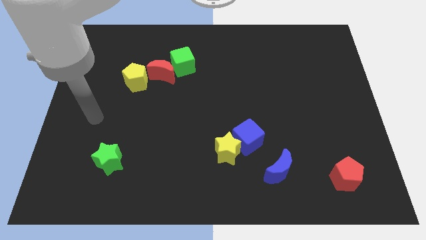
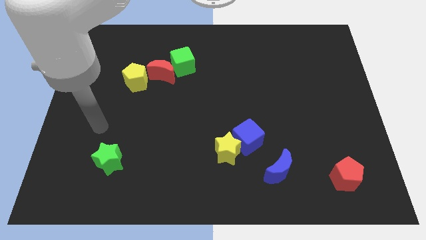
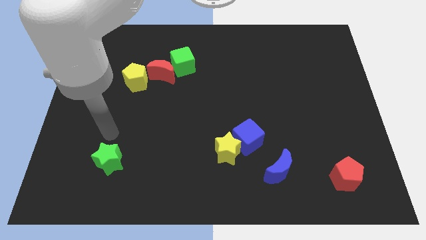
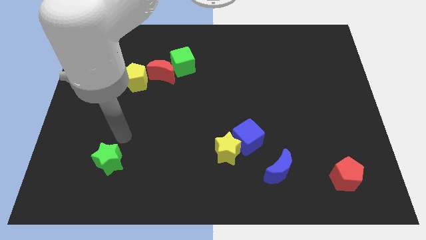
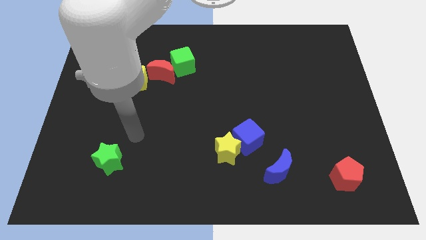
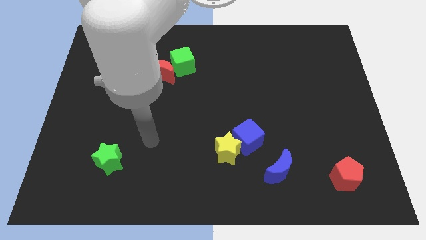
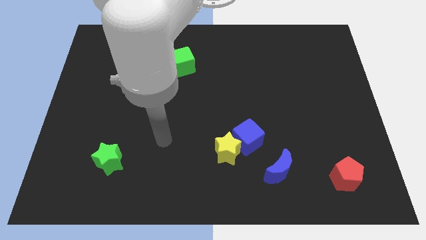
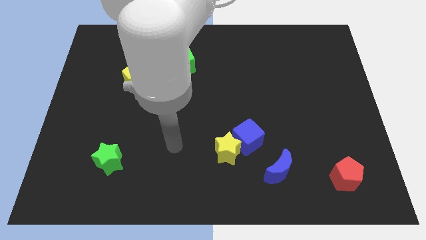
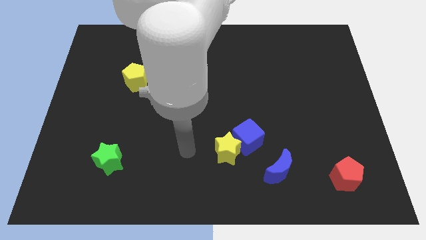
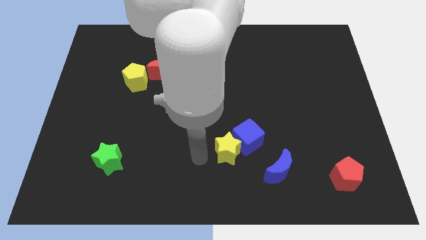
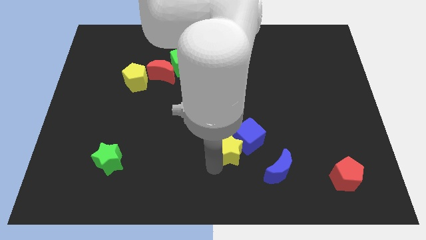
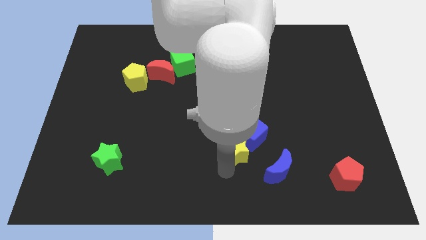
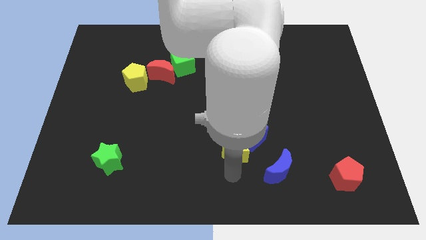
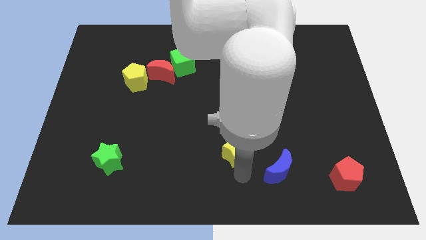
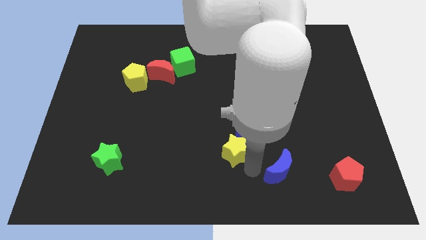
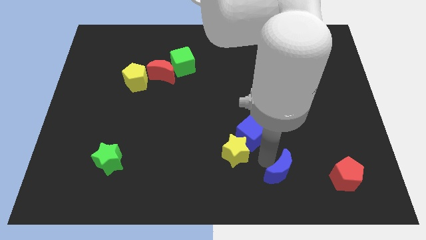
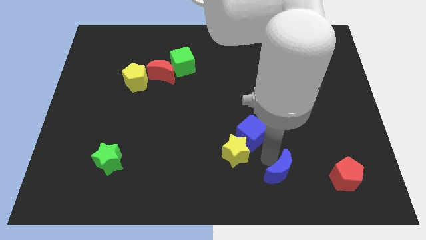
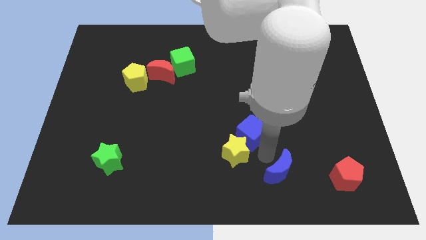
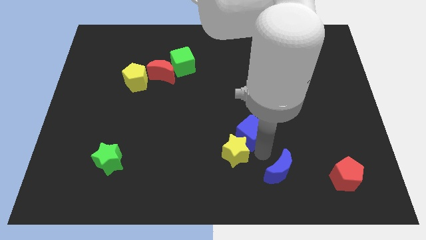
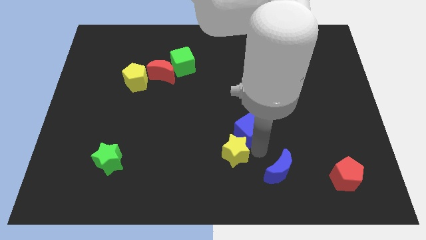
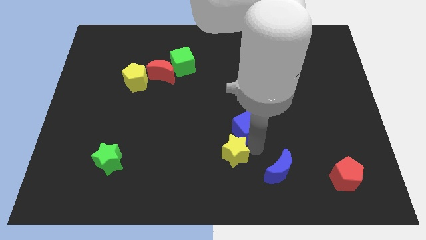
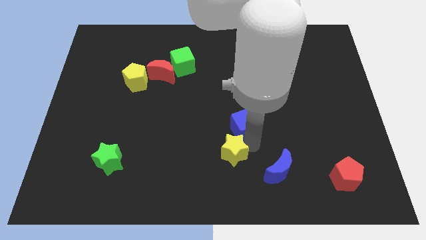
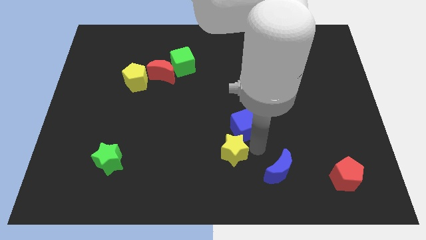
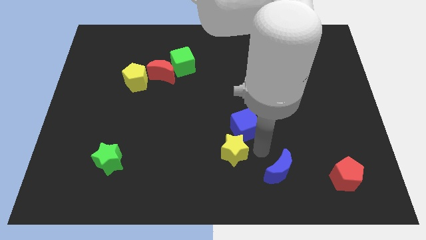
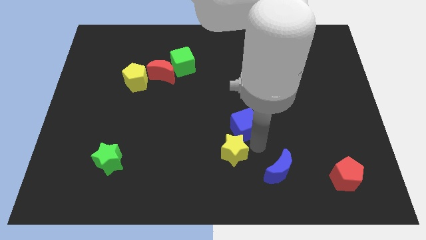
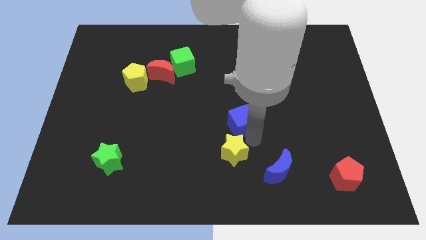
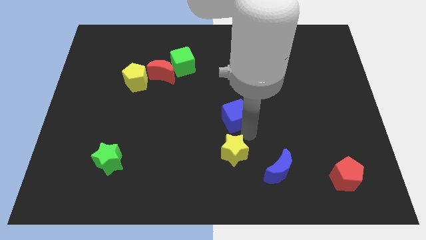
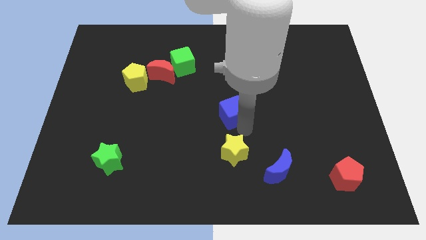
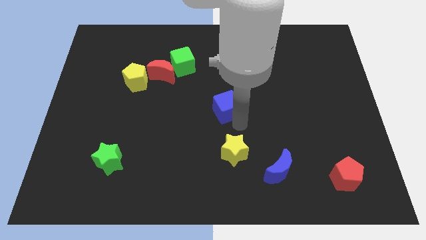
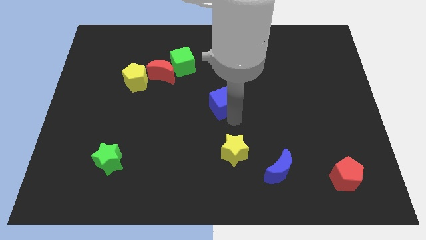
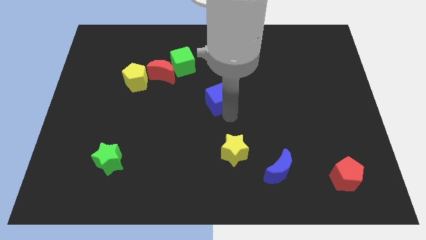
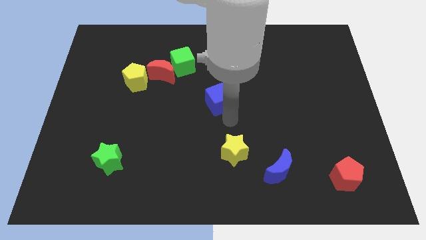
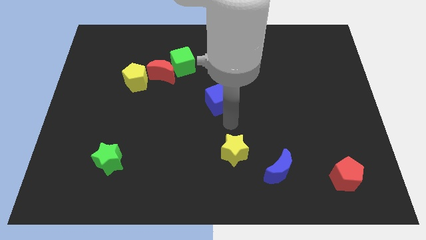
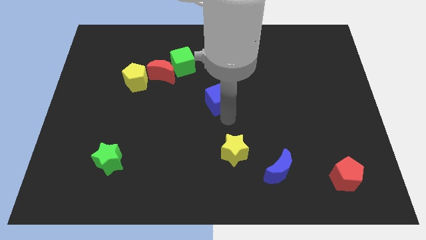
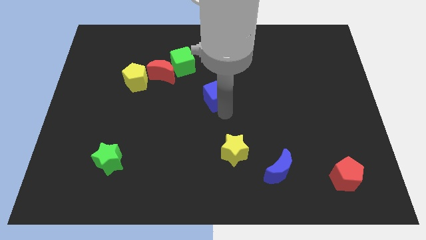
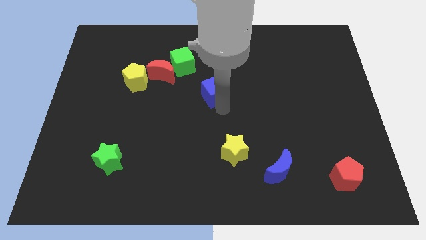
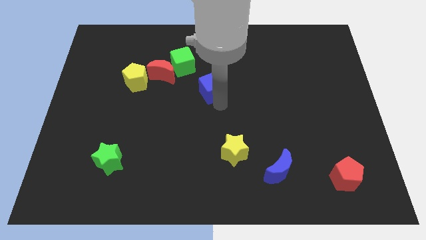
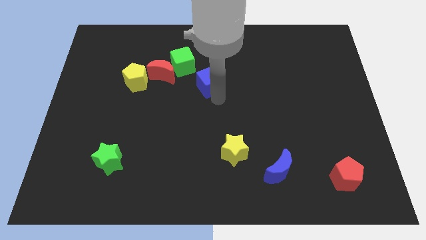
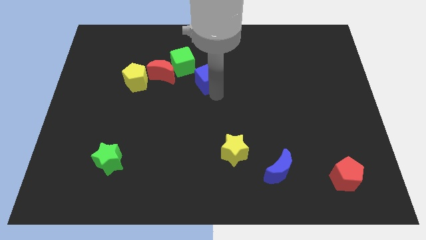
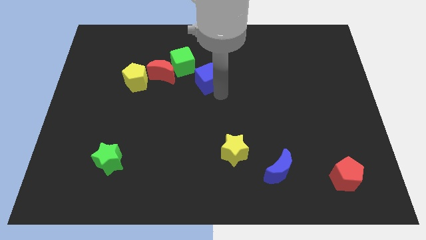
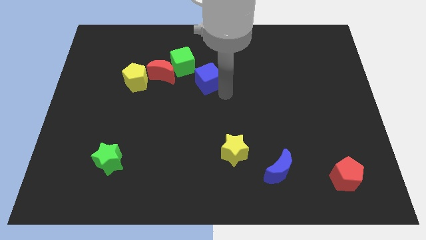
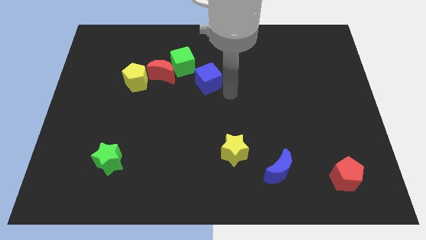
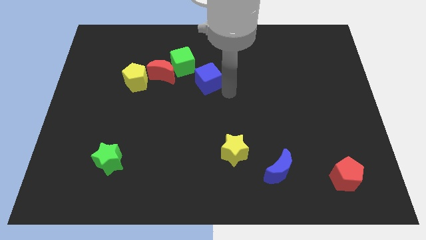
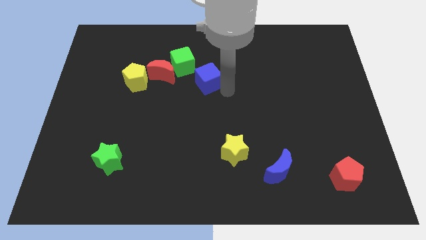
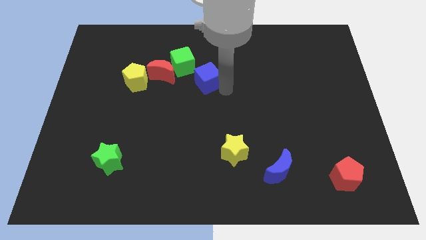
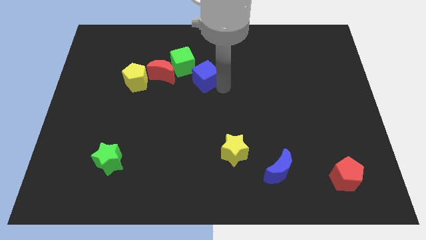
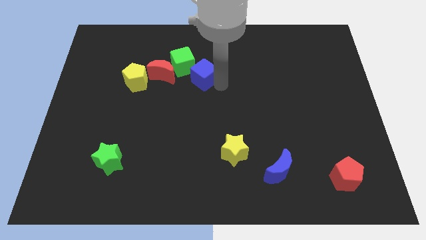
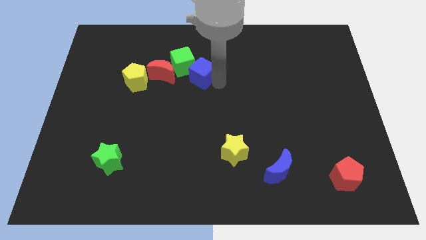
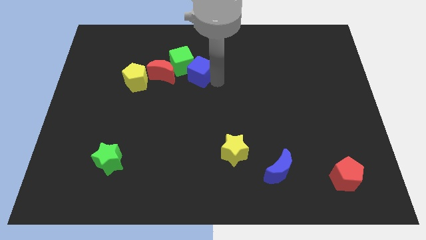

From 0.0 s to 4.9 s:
slide the blue cube next to the green cube

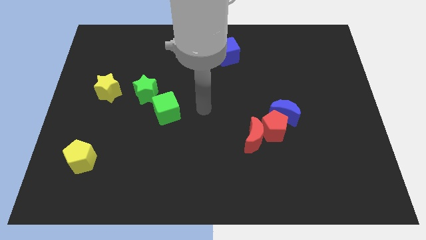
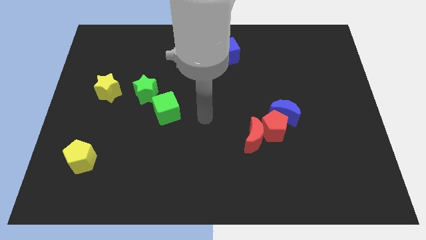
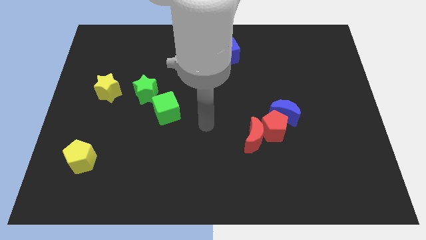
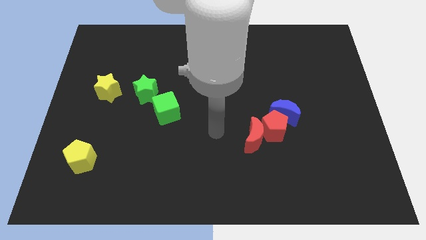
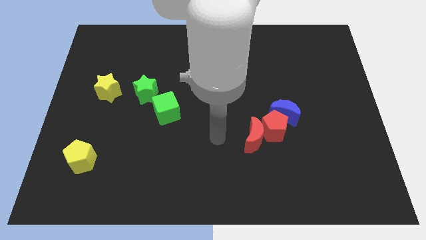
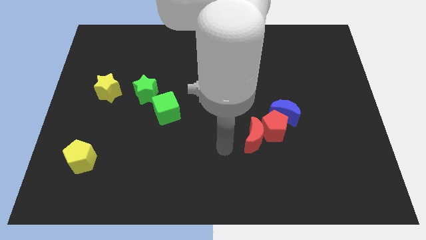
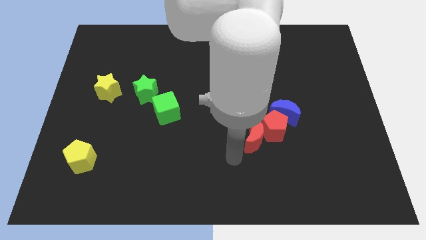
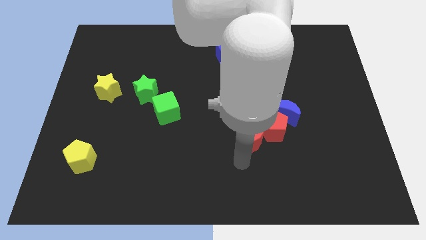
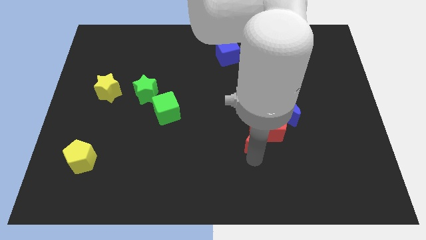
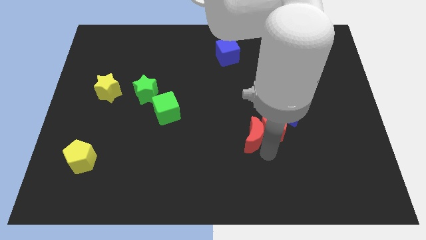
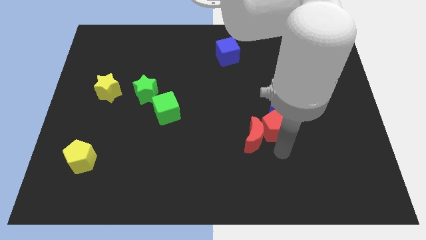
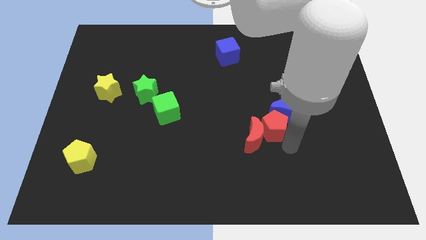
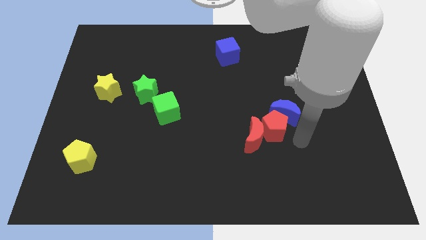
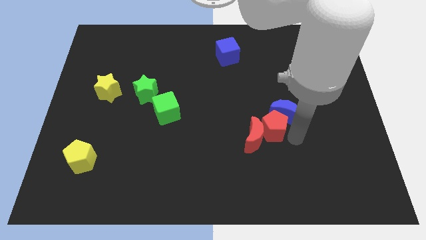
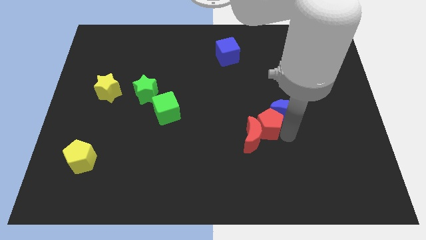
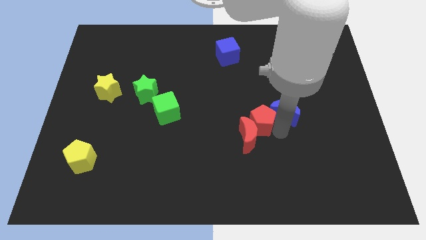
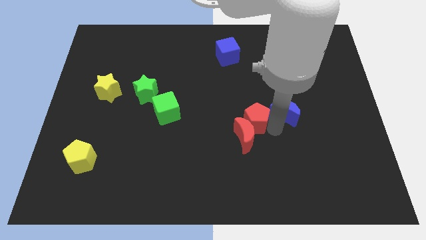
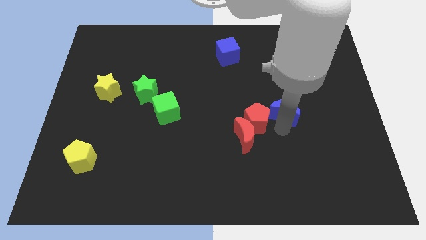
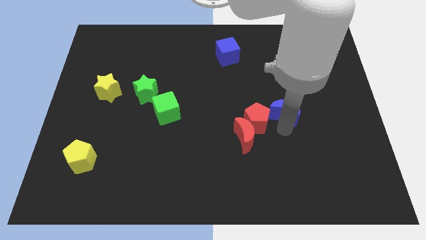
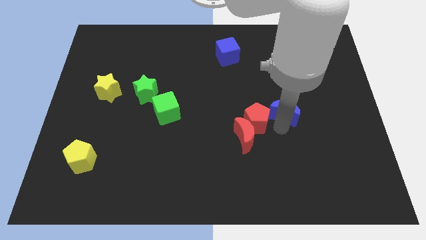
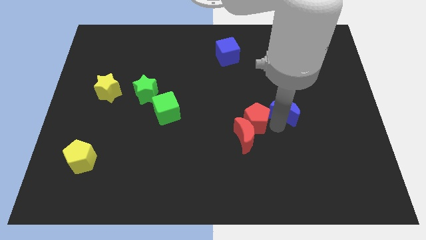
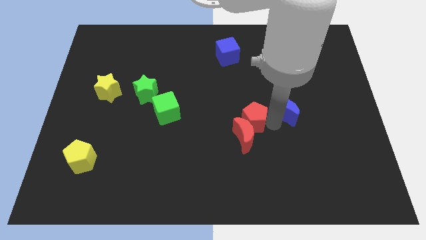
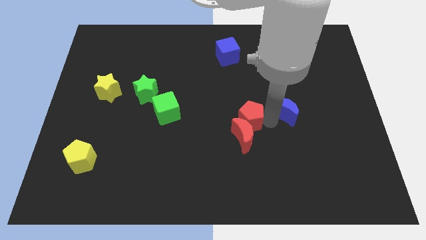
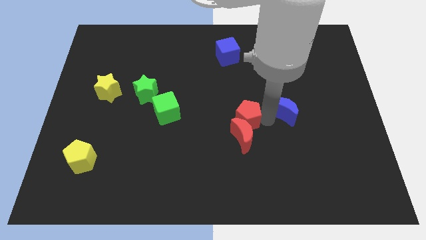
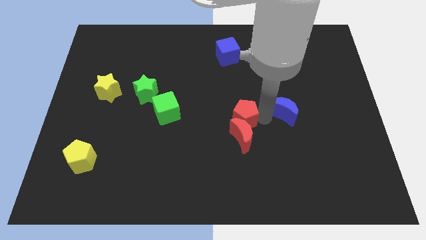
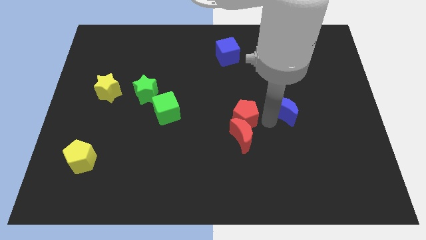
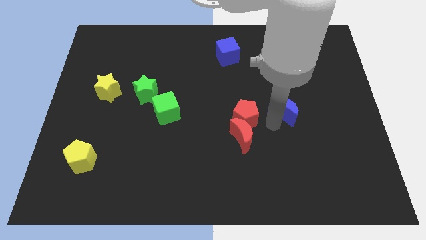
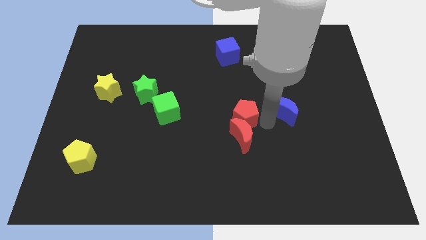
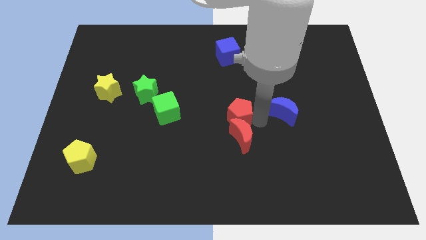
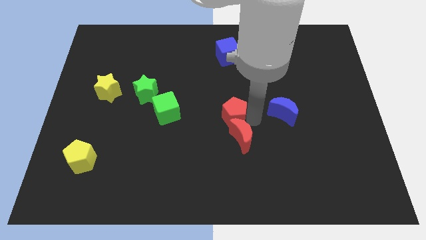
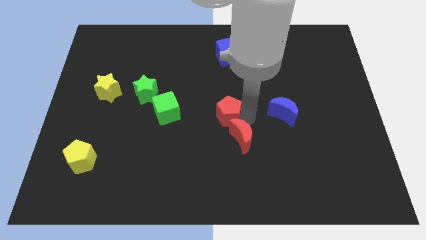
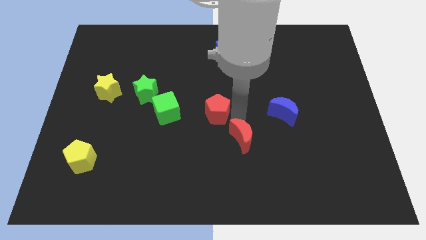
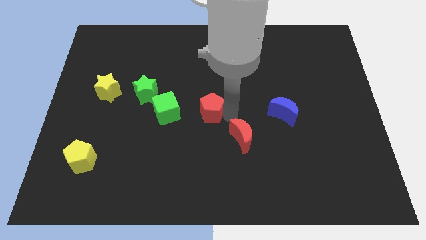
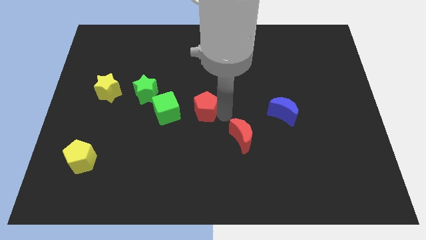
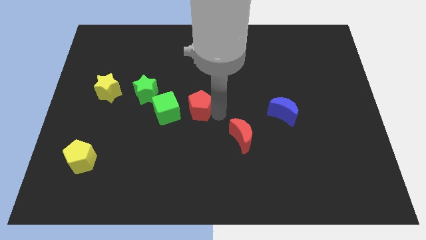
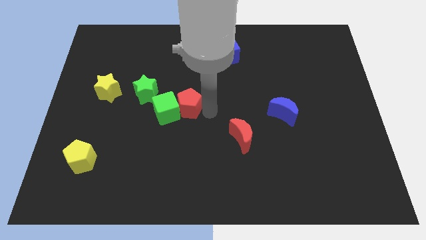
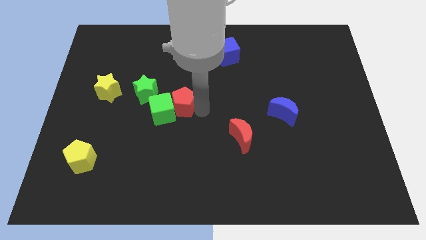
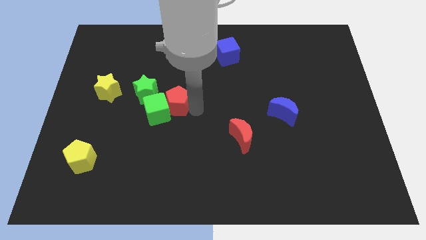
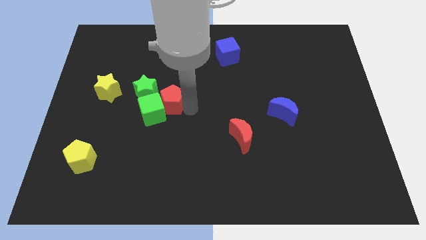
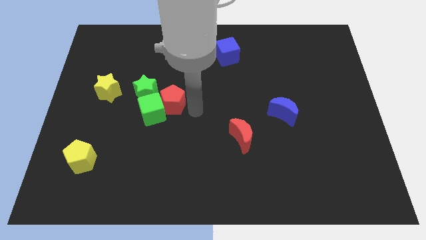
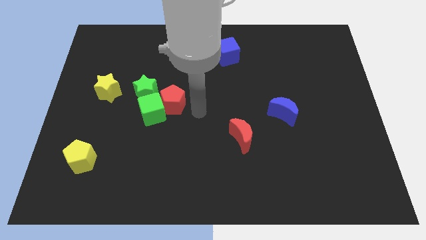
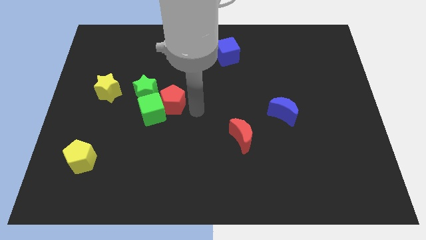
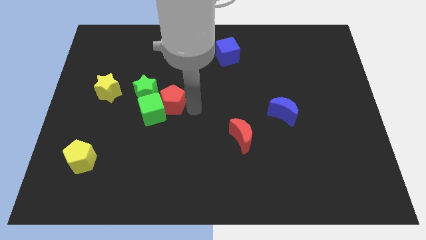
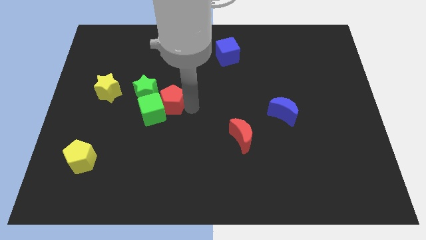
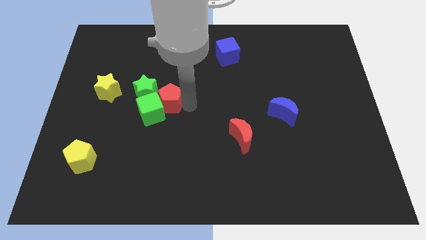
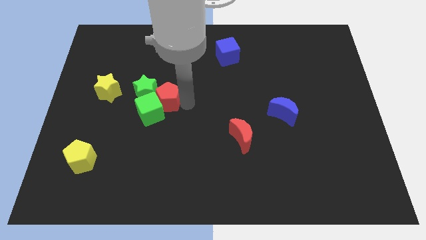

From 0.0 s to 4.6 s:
move the red pentagon next to the green star
